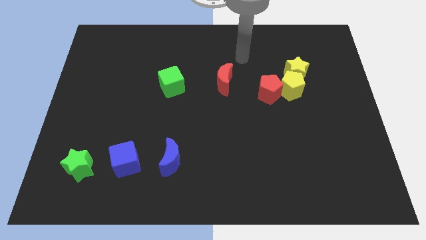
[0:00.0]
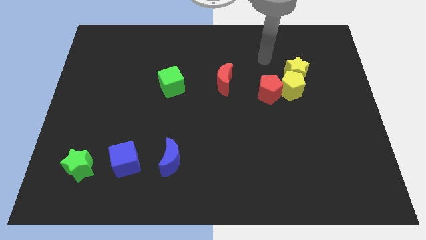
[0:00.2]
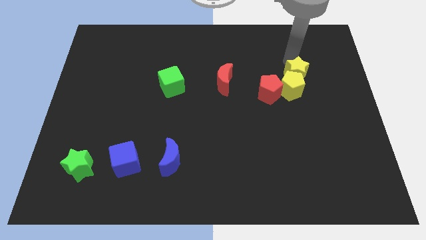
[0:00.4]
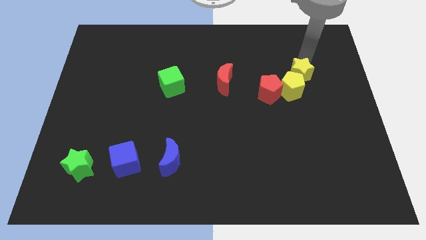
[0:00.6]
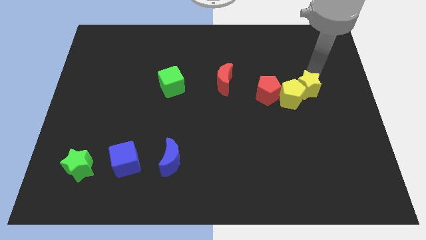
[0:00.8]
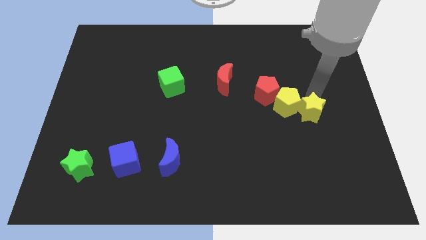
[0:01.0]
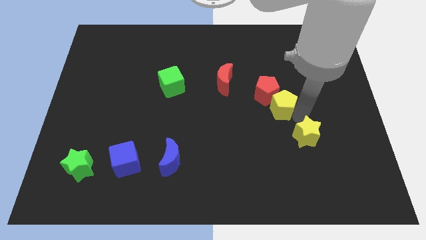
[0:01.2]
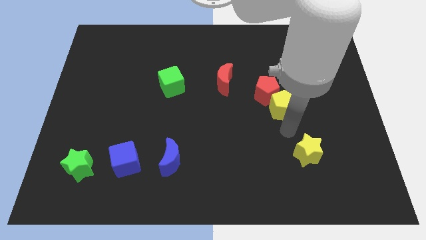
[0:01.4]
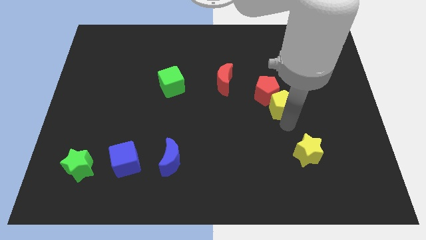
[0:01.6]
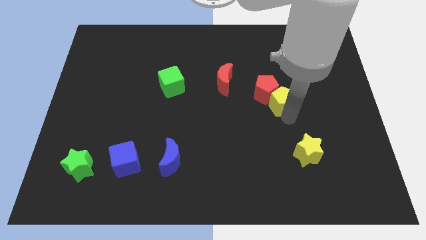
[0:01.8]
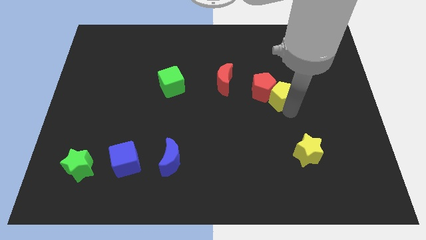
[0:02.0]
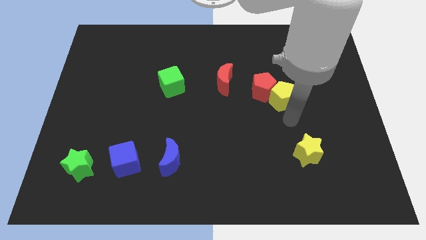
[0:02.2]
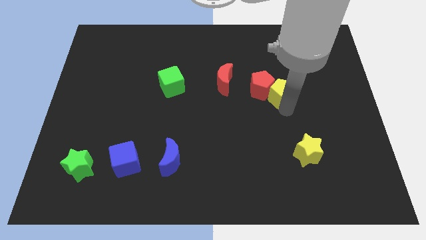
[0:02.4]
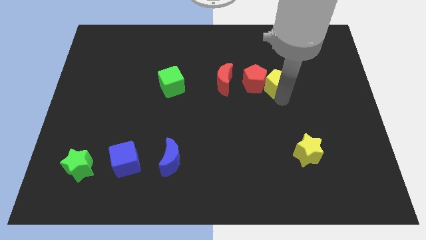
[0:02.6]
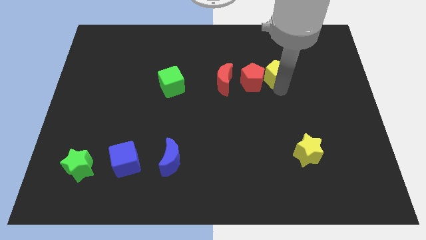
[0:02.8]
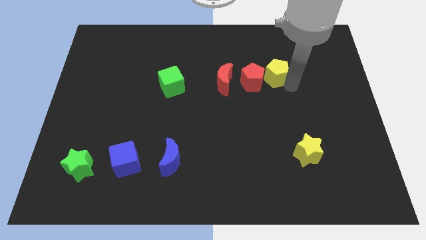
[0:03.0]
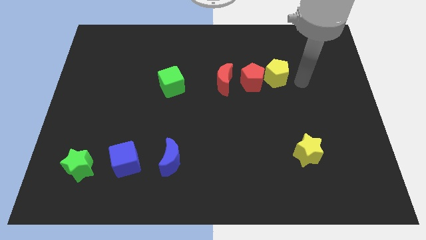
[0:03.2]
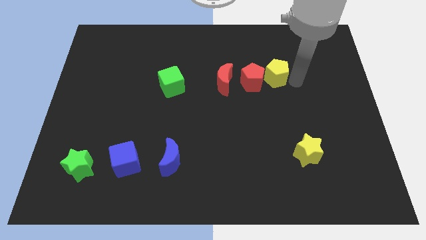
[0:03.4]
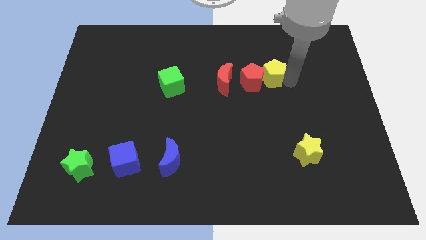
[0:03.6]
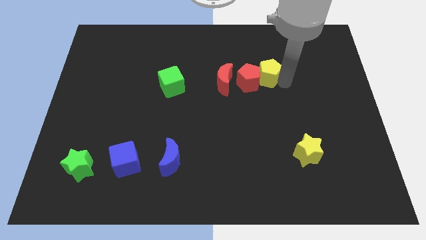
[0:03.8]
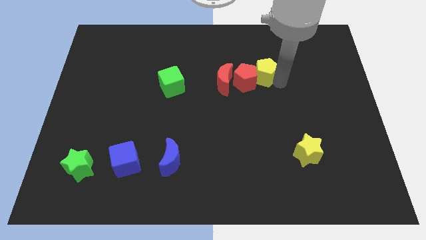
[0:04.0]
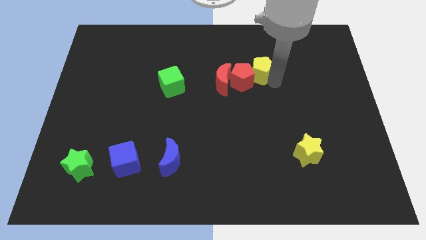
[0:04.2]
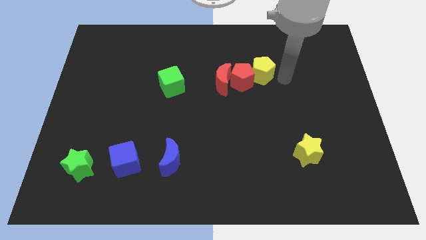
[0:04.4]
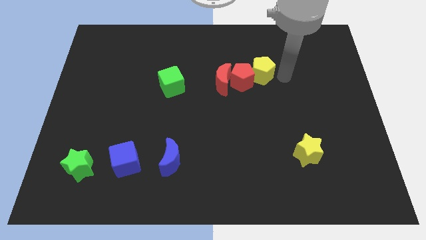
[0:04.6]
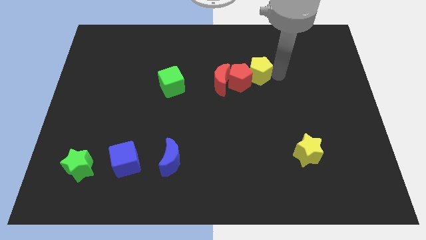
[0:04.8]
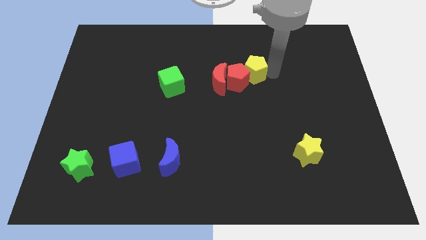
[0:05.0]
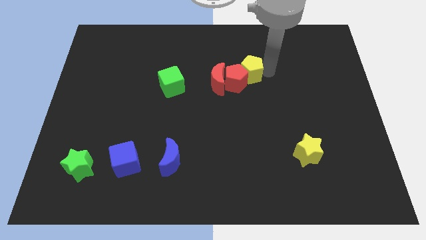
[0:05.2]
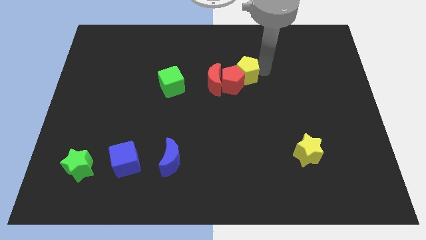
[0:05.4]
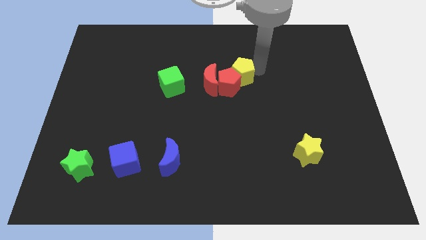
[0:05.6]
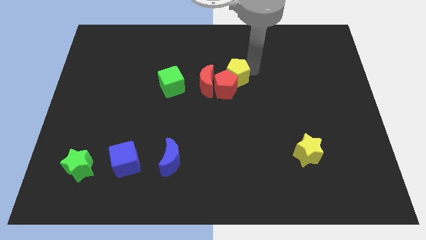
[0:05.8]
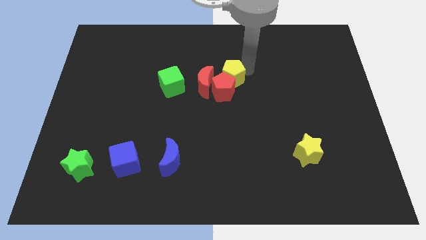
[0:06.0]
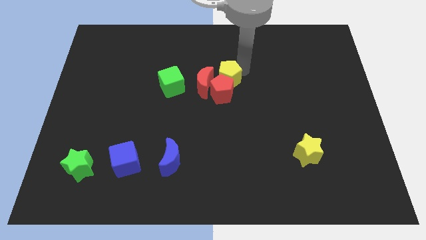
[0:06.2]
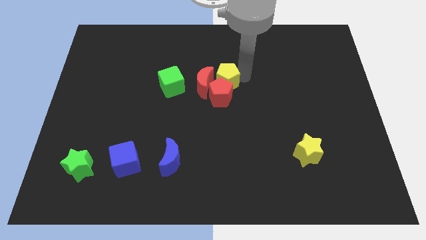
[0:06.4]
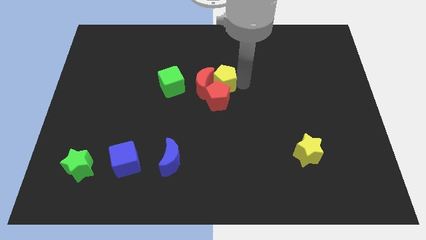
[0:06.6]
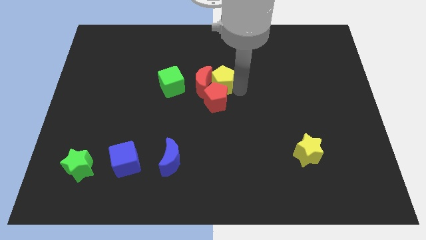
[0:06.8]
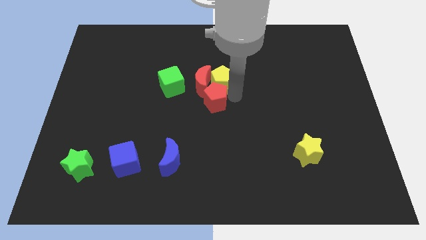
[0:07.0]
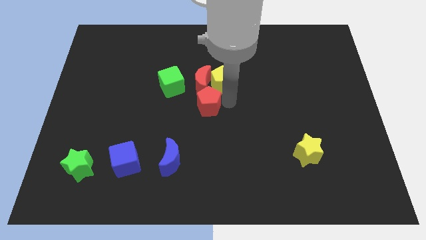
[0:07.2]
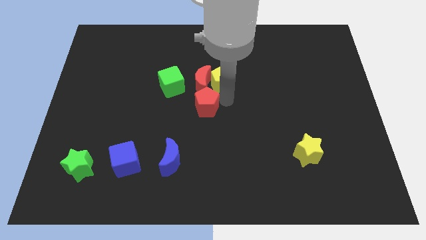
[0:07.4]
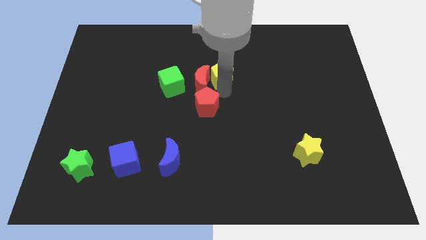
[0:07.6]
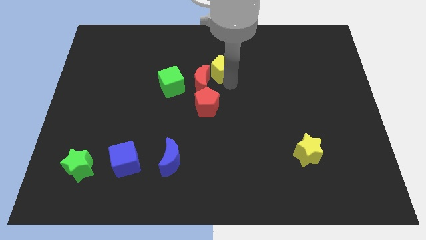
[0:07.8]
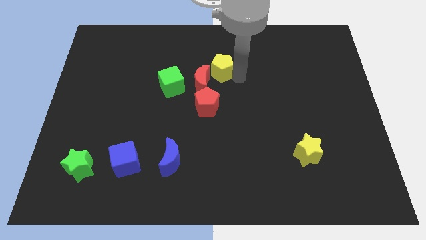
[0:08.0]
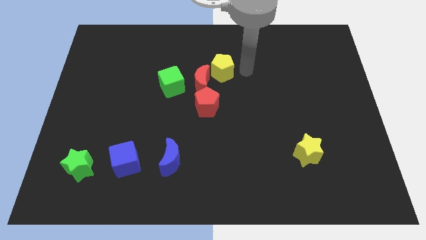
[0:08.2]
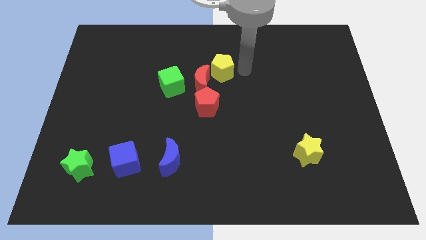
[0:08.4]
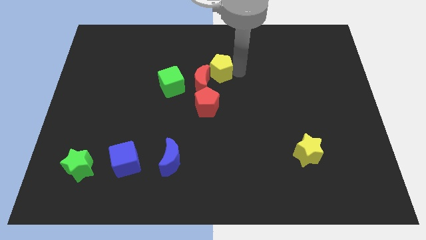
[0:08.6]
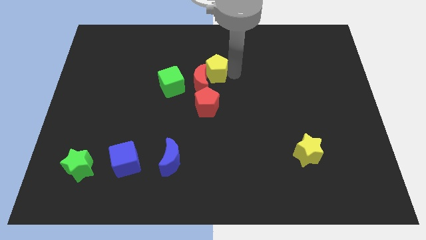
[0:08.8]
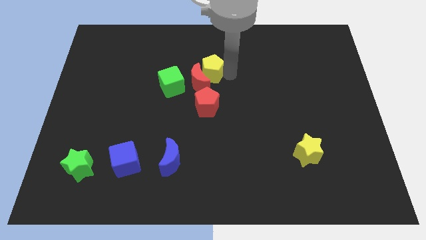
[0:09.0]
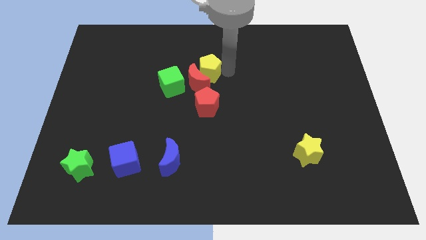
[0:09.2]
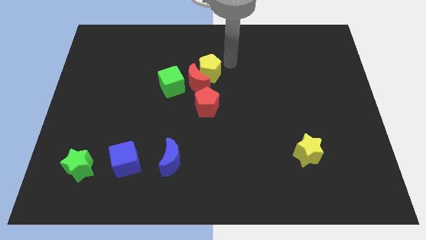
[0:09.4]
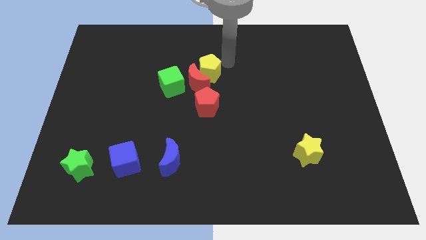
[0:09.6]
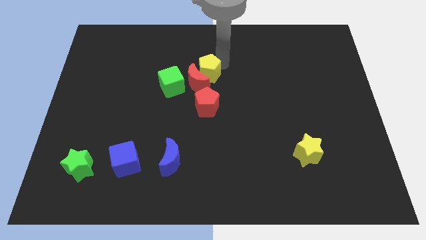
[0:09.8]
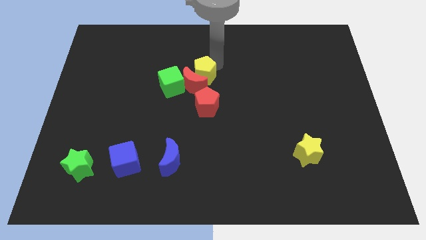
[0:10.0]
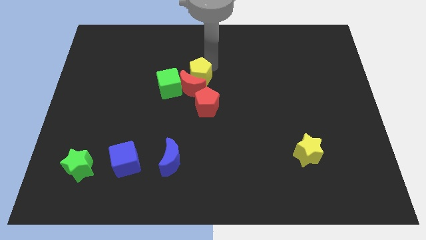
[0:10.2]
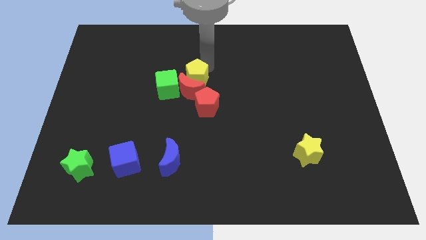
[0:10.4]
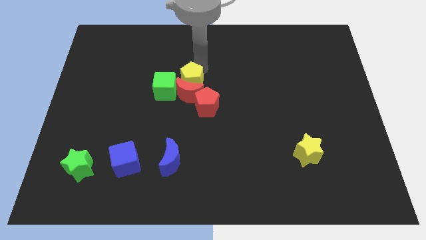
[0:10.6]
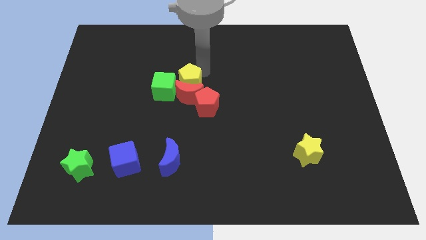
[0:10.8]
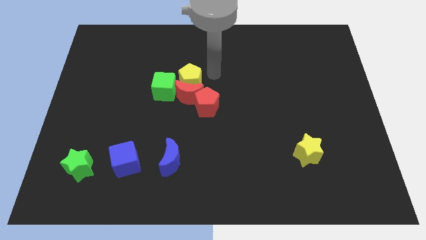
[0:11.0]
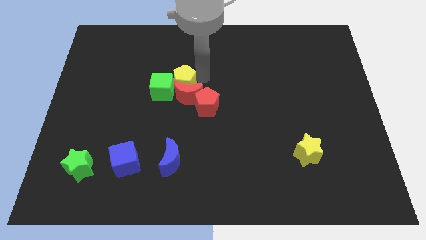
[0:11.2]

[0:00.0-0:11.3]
put the yellow pentagon next to the green cube

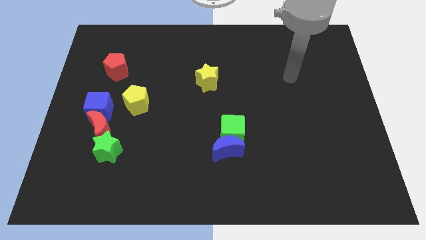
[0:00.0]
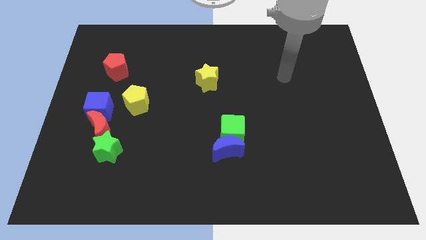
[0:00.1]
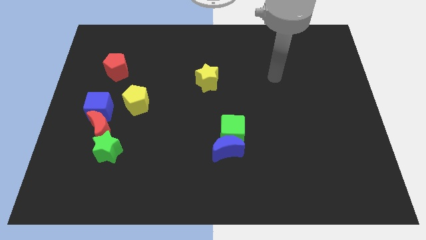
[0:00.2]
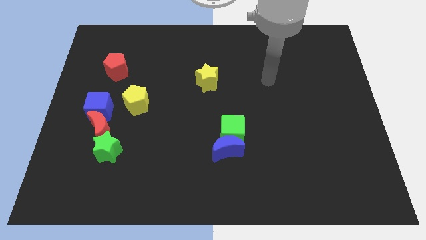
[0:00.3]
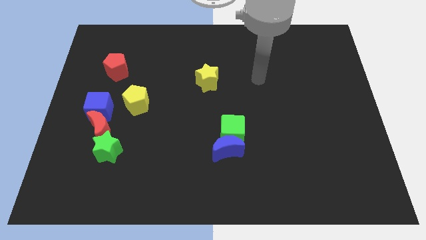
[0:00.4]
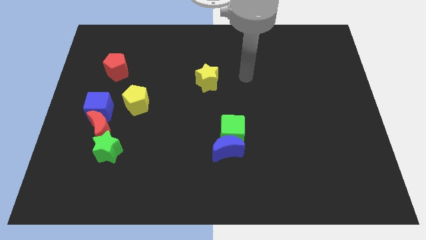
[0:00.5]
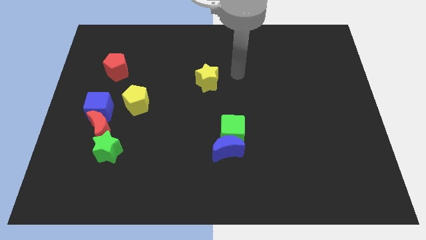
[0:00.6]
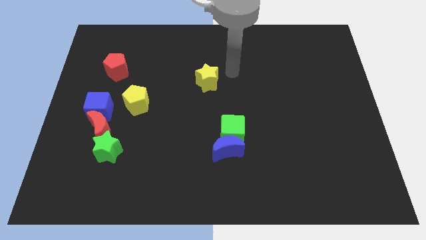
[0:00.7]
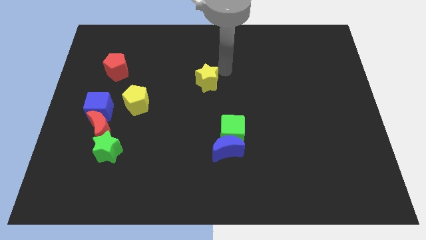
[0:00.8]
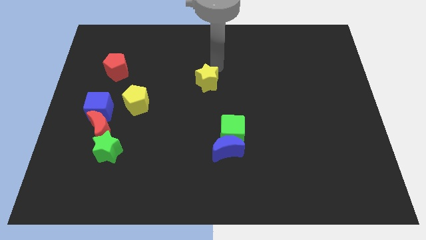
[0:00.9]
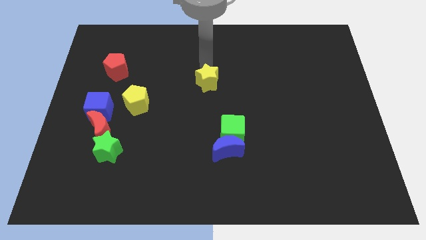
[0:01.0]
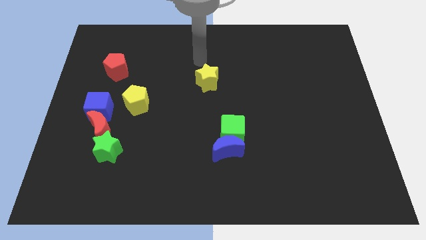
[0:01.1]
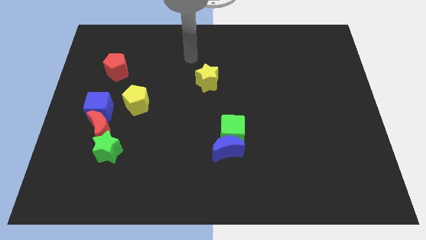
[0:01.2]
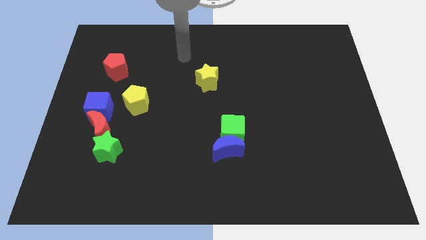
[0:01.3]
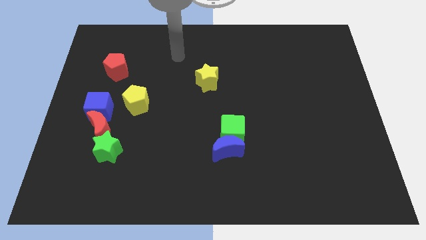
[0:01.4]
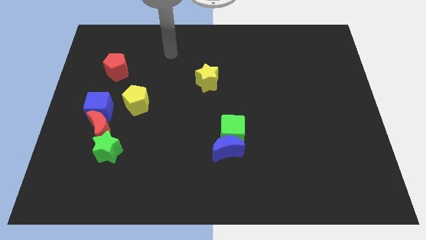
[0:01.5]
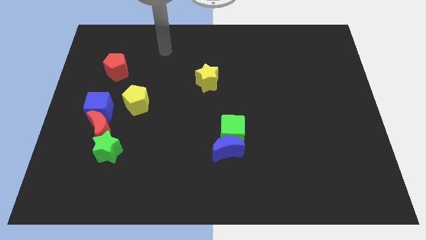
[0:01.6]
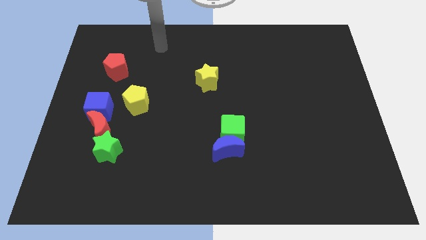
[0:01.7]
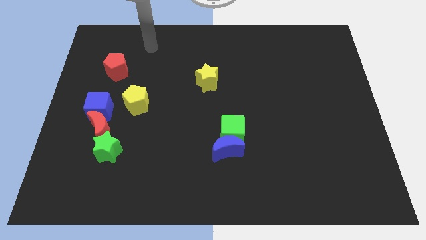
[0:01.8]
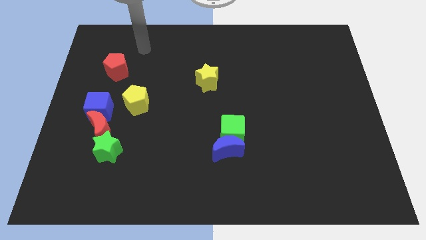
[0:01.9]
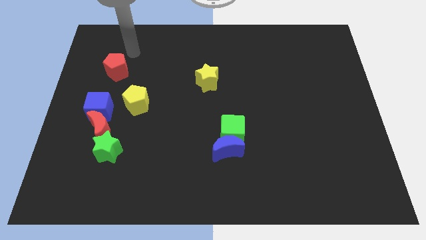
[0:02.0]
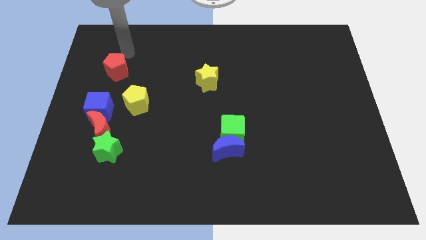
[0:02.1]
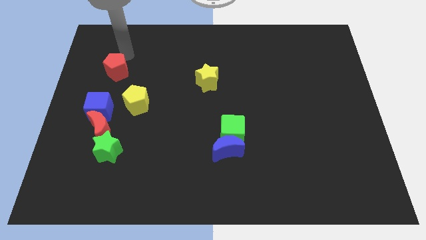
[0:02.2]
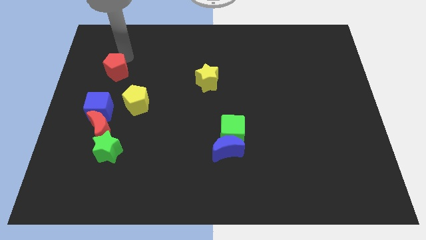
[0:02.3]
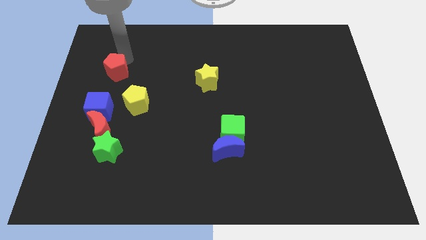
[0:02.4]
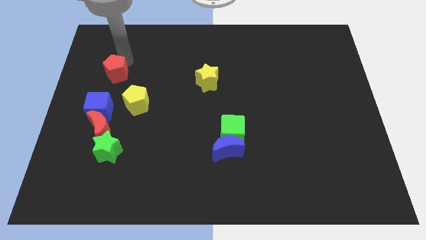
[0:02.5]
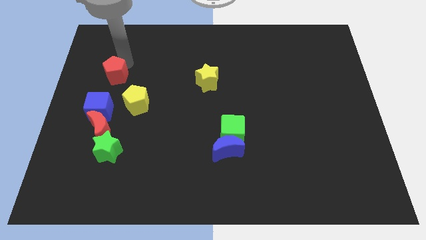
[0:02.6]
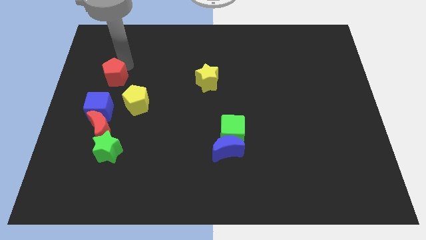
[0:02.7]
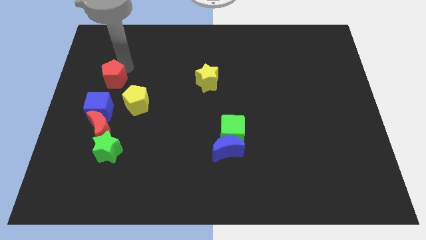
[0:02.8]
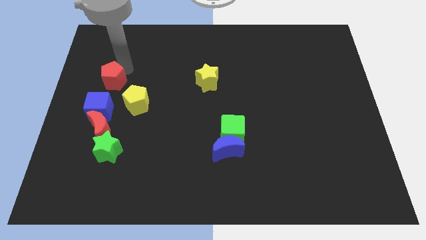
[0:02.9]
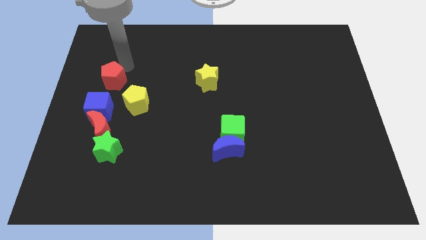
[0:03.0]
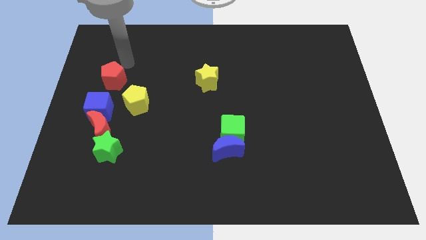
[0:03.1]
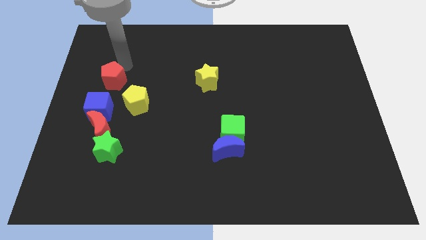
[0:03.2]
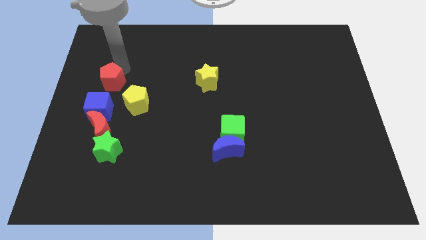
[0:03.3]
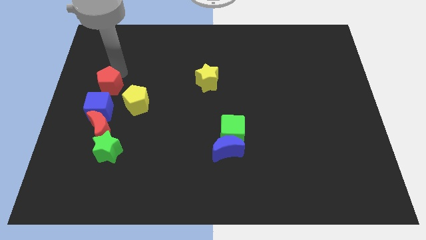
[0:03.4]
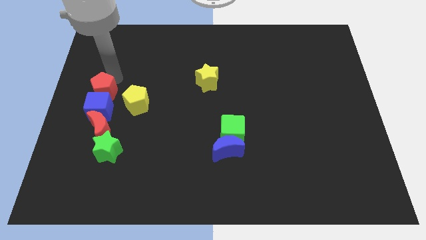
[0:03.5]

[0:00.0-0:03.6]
put the red pentagon next to the blue cube
